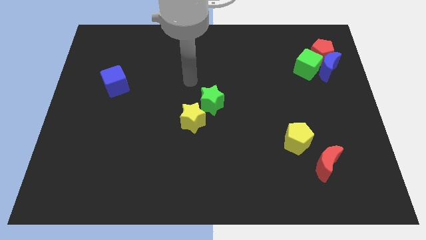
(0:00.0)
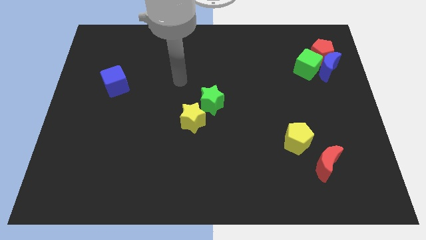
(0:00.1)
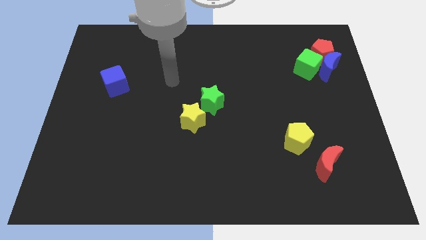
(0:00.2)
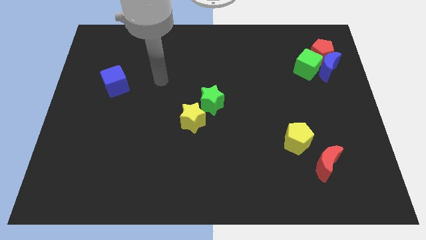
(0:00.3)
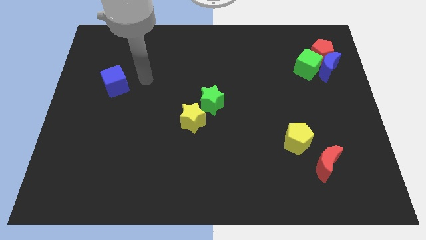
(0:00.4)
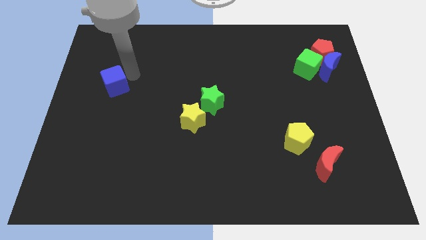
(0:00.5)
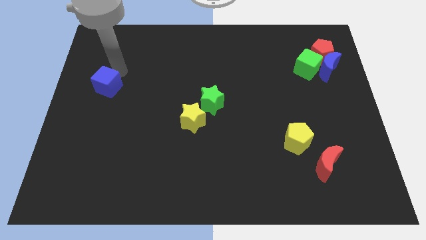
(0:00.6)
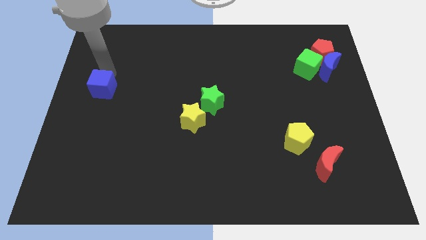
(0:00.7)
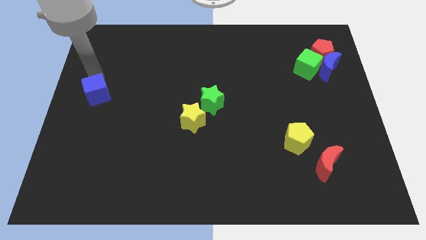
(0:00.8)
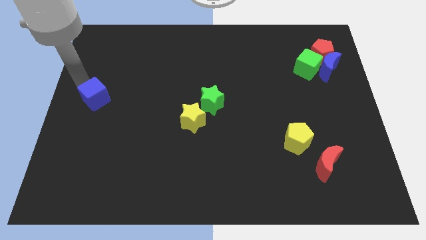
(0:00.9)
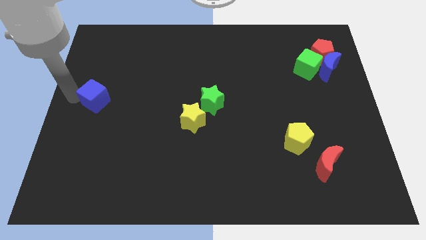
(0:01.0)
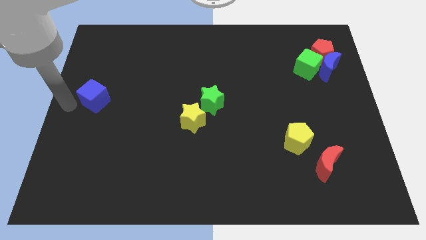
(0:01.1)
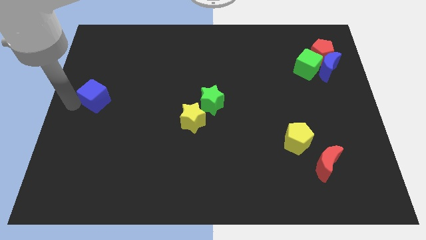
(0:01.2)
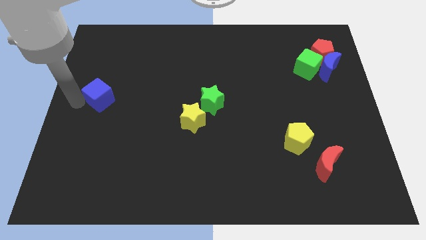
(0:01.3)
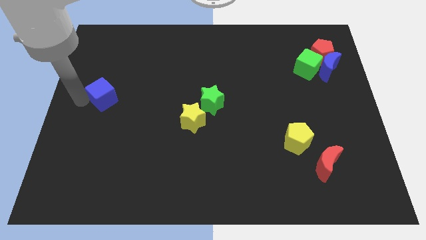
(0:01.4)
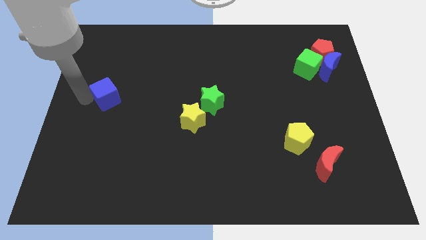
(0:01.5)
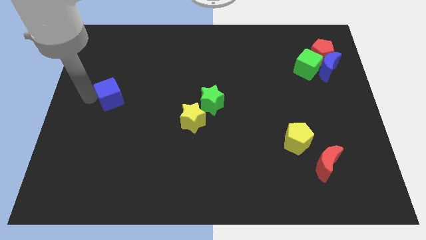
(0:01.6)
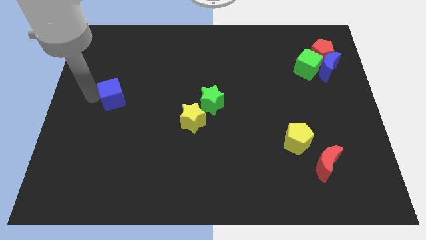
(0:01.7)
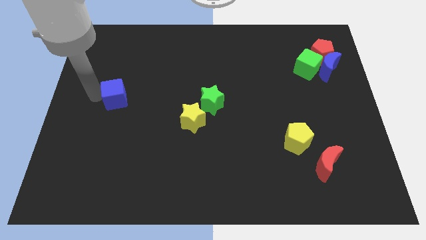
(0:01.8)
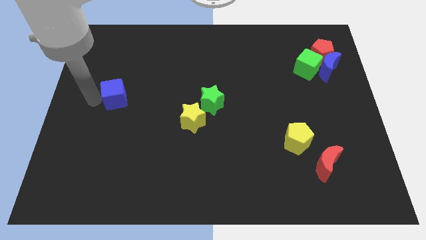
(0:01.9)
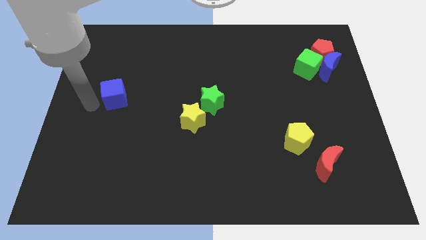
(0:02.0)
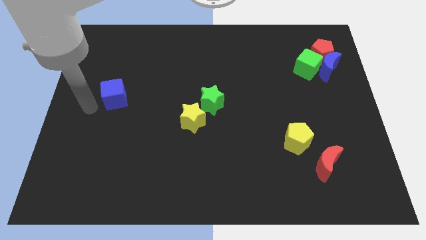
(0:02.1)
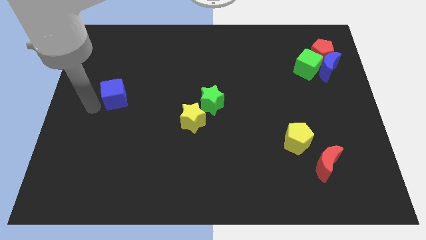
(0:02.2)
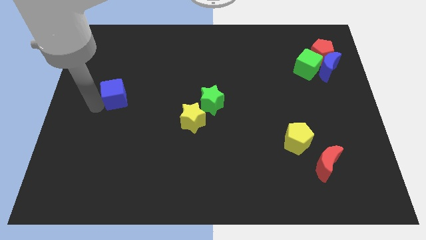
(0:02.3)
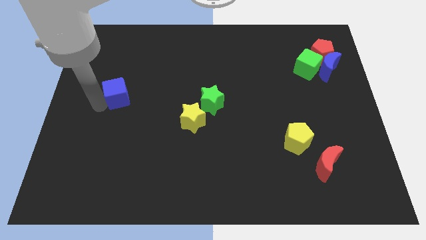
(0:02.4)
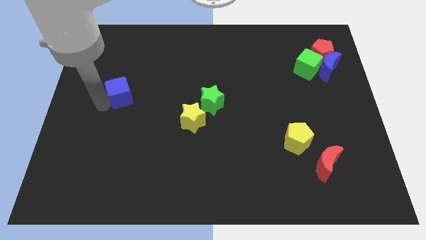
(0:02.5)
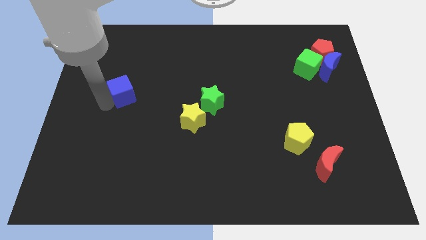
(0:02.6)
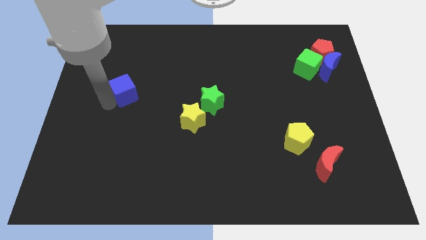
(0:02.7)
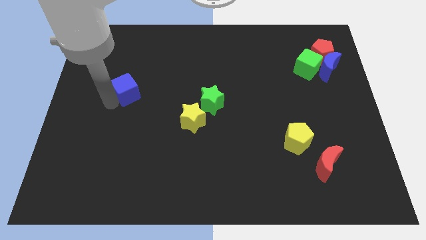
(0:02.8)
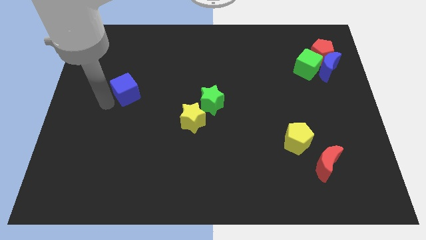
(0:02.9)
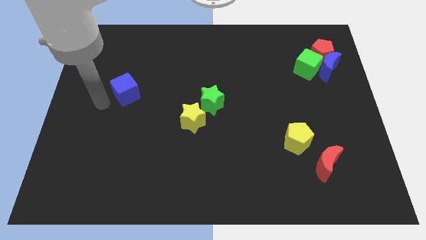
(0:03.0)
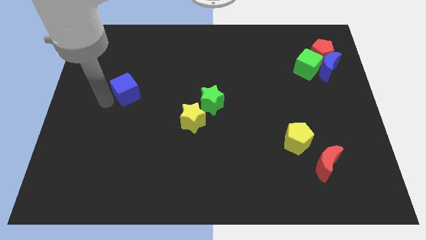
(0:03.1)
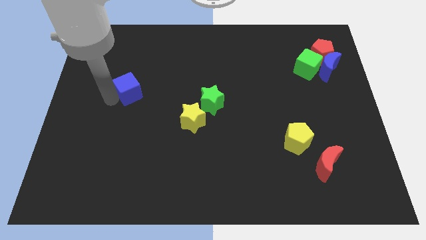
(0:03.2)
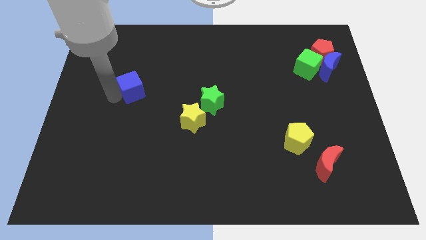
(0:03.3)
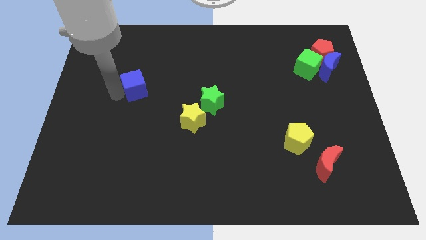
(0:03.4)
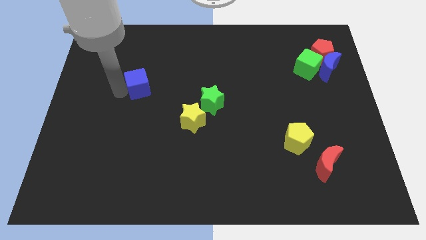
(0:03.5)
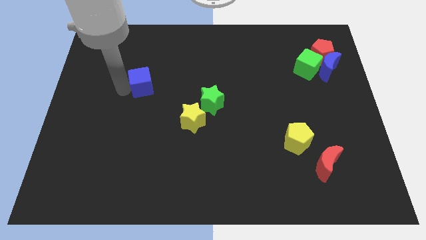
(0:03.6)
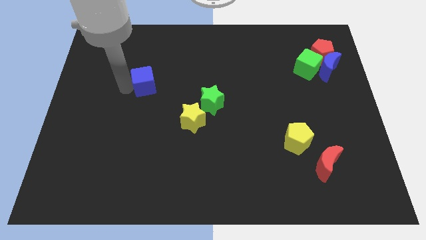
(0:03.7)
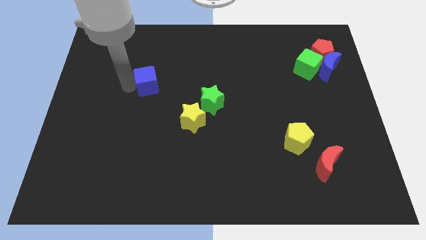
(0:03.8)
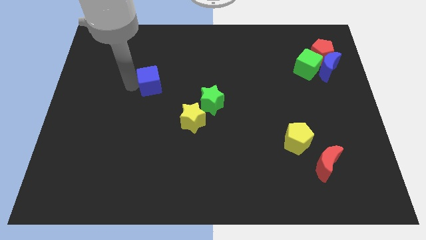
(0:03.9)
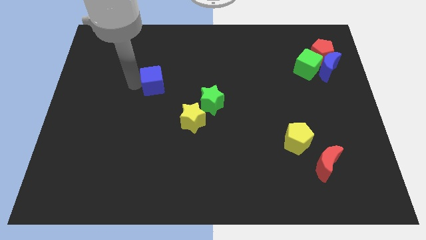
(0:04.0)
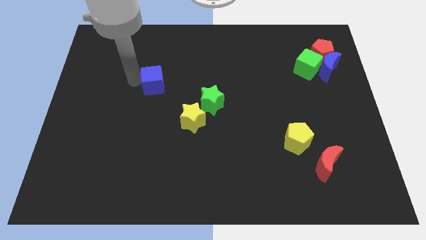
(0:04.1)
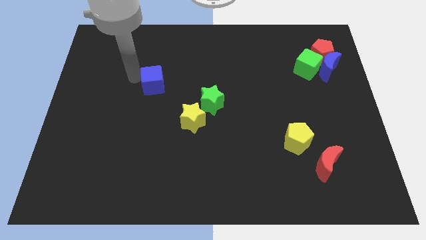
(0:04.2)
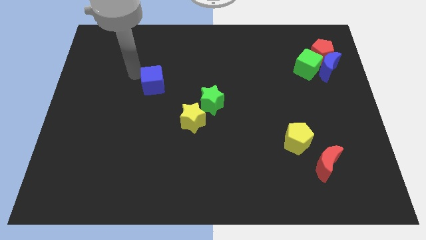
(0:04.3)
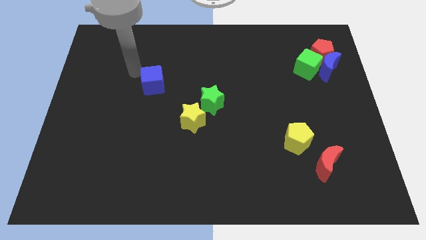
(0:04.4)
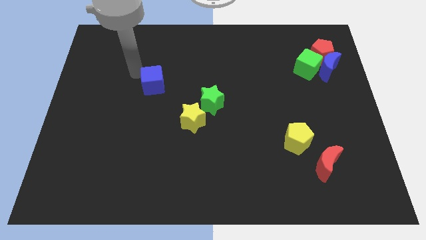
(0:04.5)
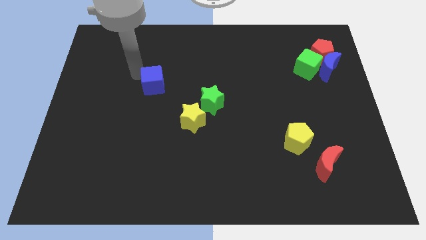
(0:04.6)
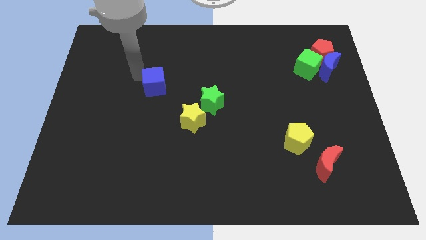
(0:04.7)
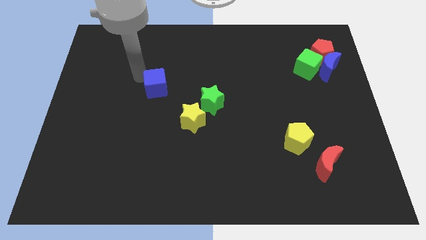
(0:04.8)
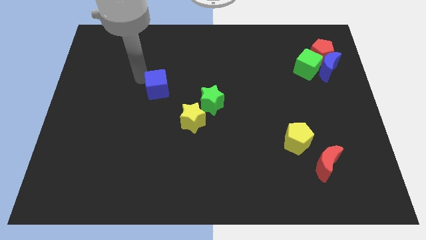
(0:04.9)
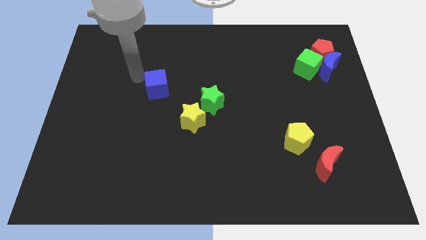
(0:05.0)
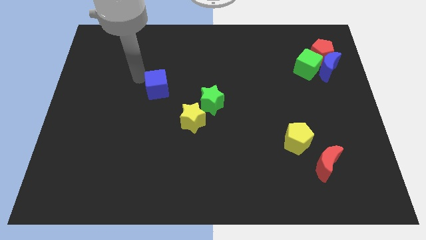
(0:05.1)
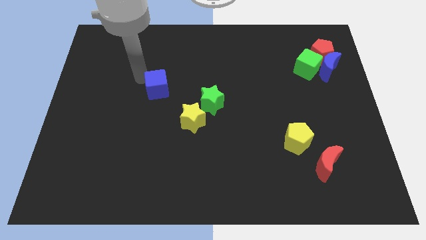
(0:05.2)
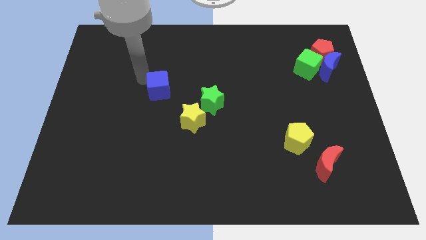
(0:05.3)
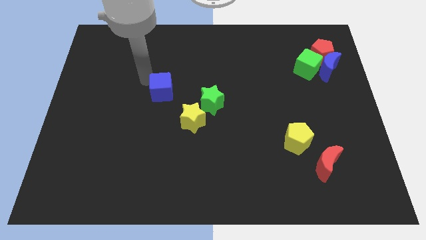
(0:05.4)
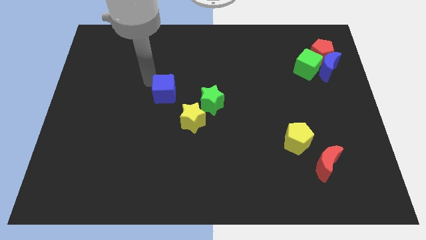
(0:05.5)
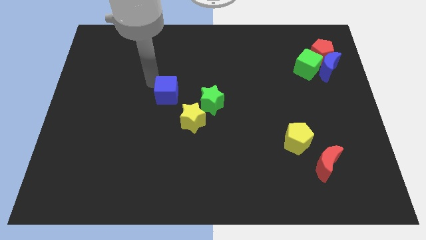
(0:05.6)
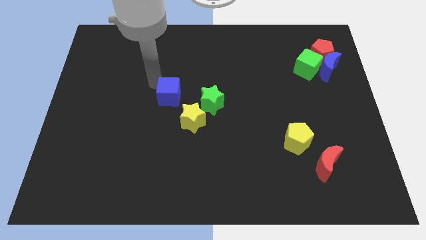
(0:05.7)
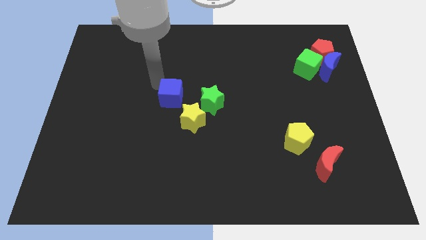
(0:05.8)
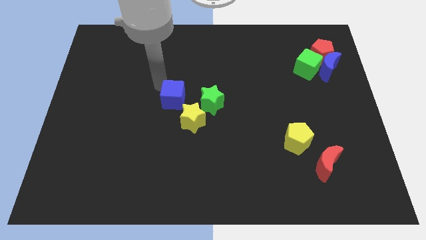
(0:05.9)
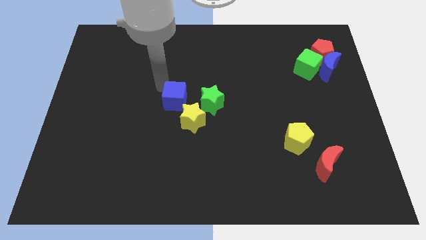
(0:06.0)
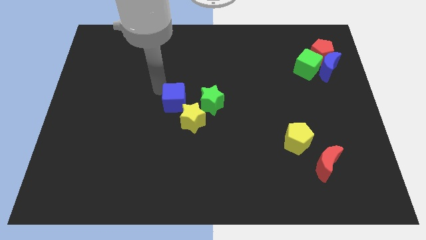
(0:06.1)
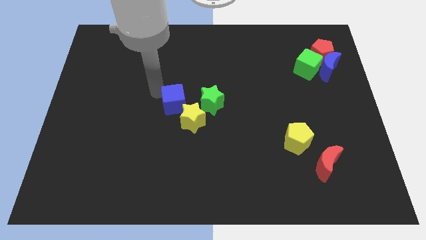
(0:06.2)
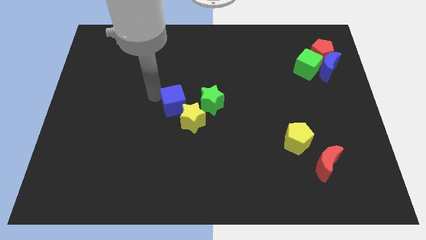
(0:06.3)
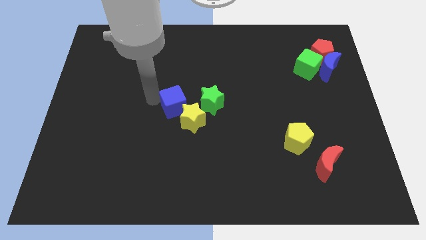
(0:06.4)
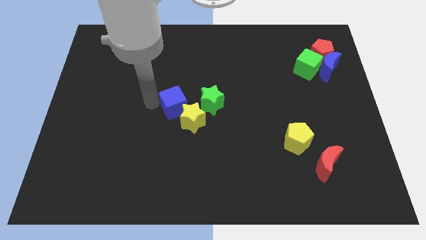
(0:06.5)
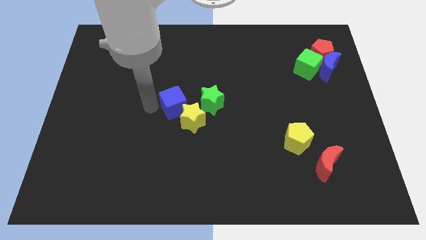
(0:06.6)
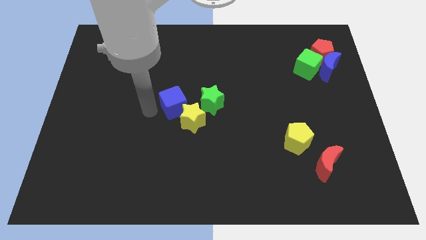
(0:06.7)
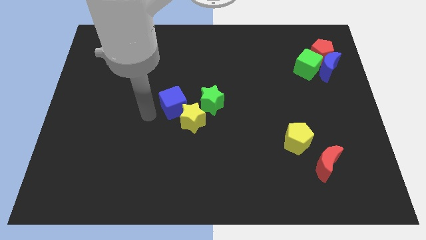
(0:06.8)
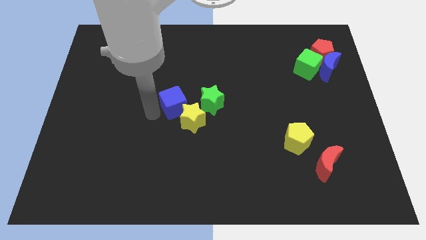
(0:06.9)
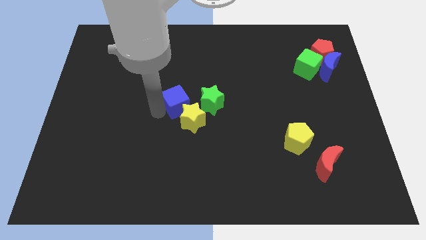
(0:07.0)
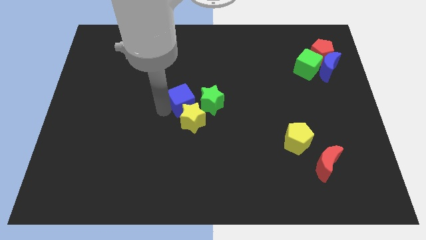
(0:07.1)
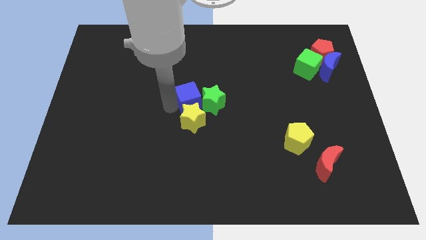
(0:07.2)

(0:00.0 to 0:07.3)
slide the blue cube to the green star

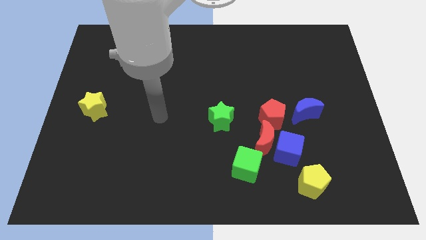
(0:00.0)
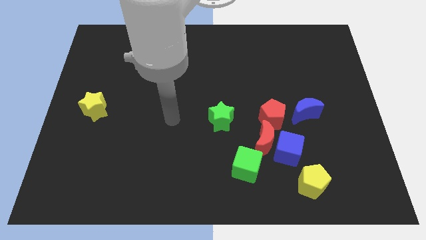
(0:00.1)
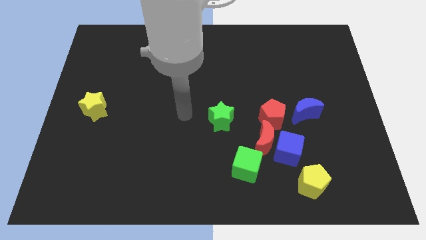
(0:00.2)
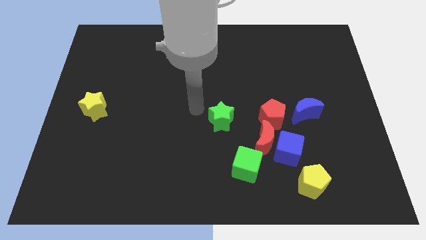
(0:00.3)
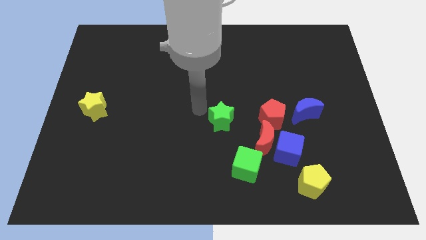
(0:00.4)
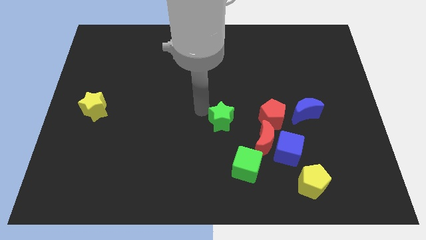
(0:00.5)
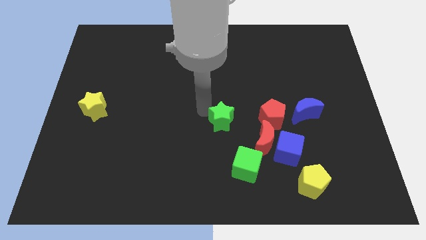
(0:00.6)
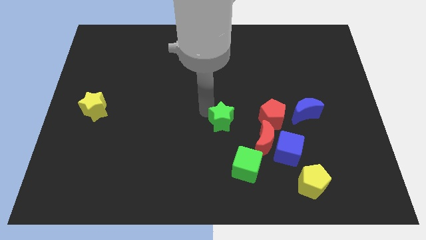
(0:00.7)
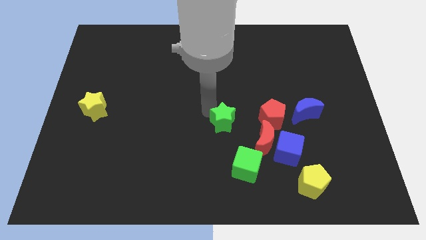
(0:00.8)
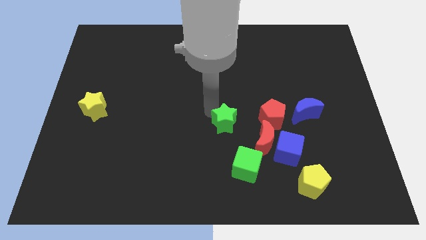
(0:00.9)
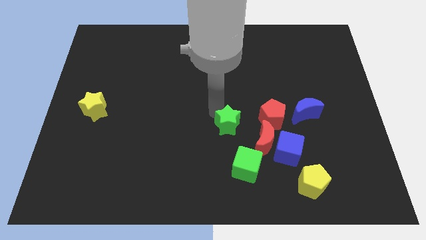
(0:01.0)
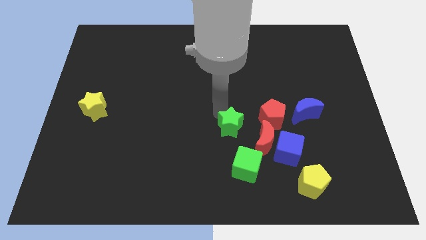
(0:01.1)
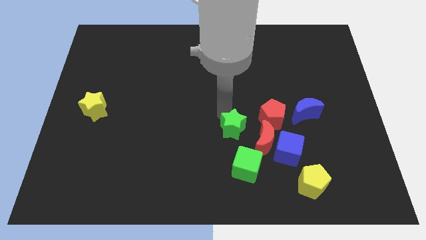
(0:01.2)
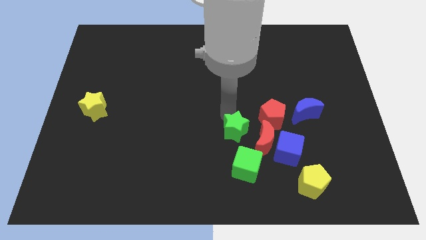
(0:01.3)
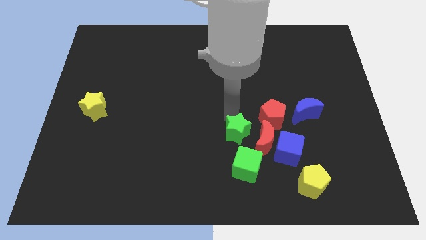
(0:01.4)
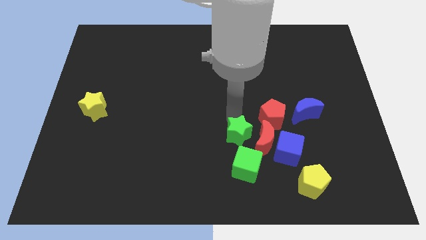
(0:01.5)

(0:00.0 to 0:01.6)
push the green star next to the red moon
